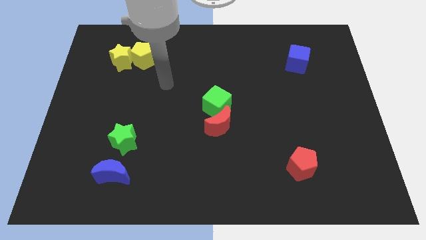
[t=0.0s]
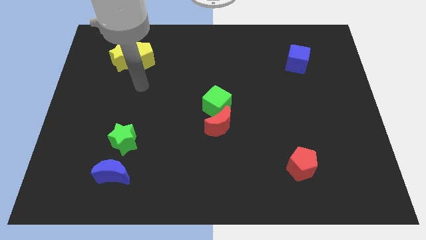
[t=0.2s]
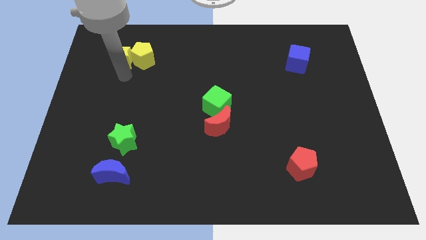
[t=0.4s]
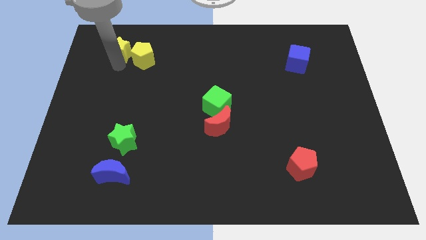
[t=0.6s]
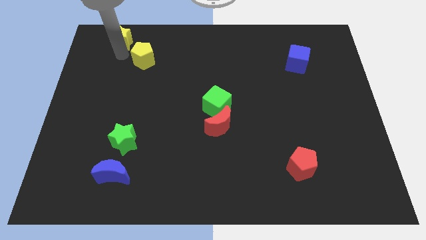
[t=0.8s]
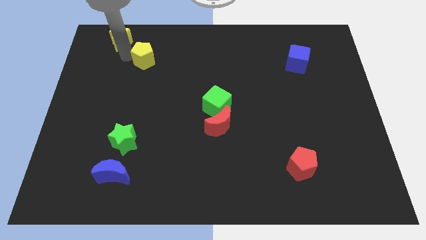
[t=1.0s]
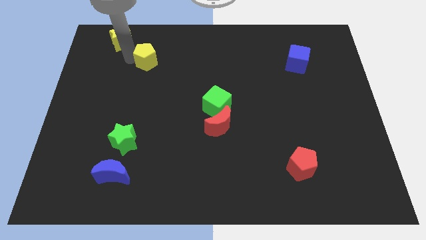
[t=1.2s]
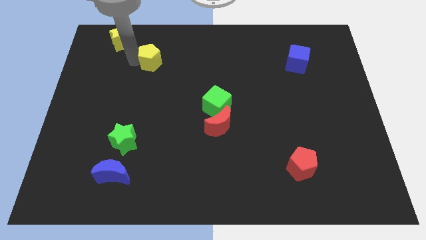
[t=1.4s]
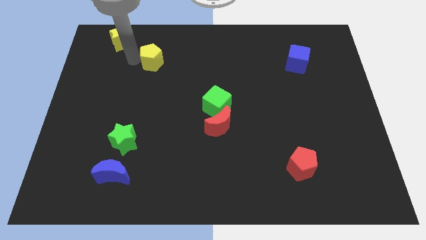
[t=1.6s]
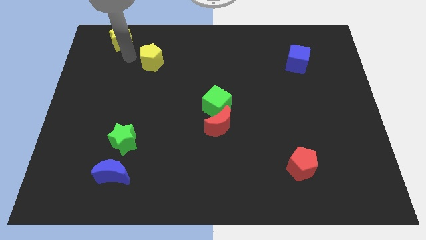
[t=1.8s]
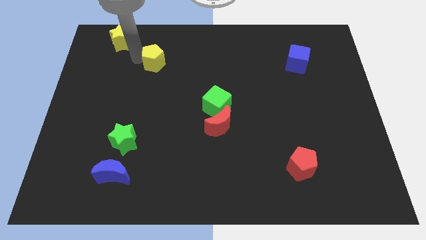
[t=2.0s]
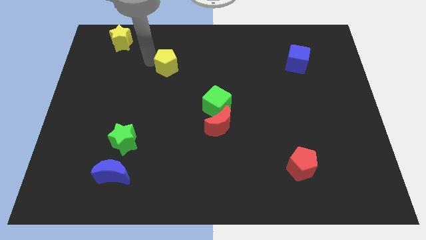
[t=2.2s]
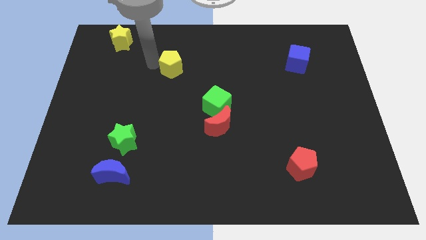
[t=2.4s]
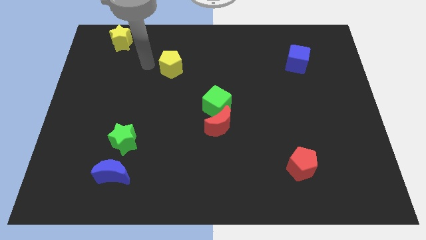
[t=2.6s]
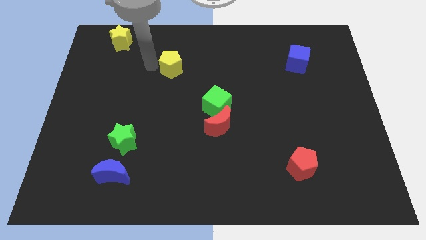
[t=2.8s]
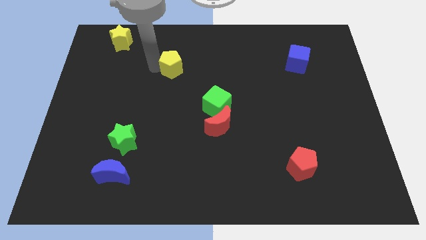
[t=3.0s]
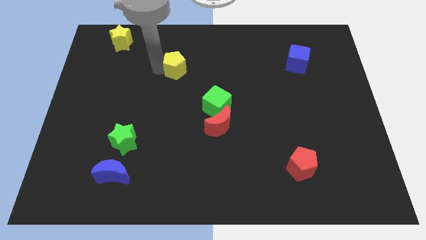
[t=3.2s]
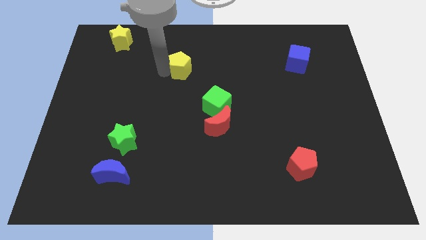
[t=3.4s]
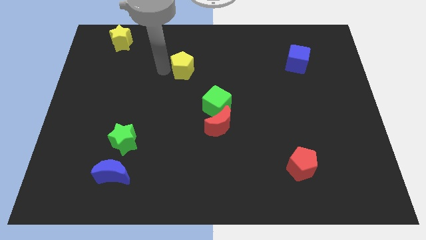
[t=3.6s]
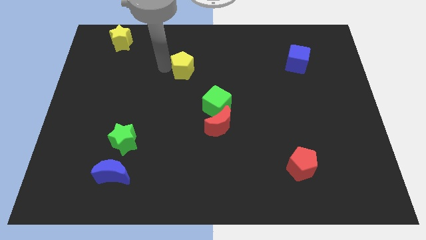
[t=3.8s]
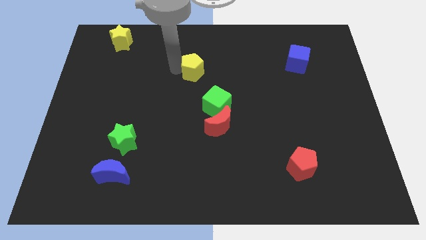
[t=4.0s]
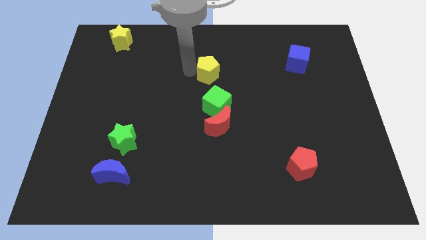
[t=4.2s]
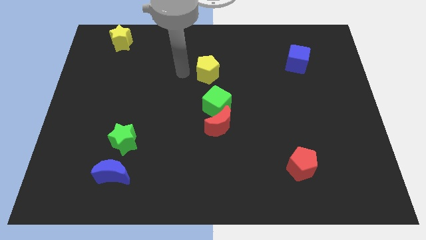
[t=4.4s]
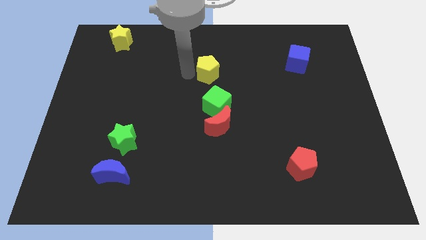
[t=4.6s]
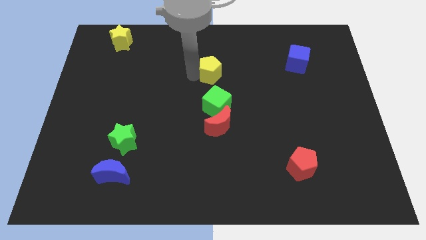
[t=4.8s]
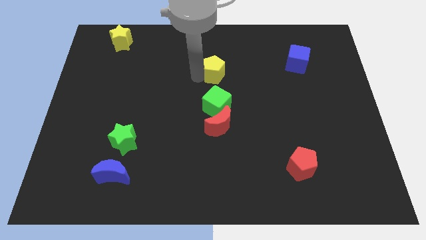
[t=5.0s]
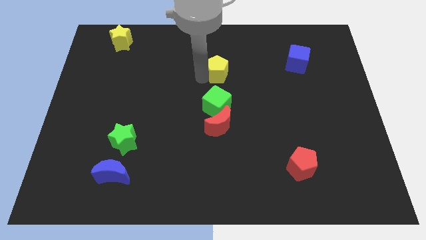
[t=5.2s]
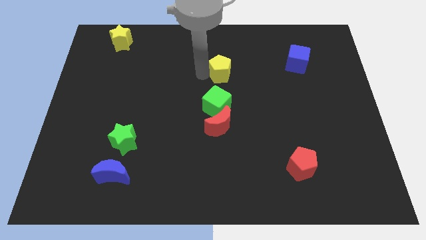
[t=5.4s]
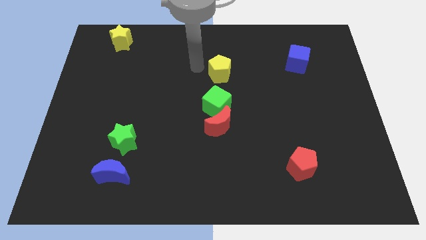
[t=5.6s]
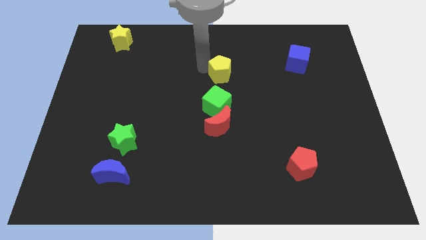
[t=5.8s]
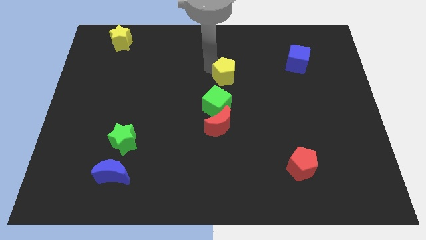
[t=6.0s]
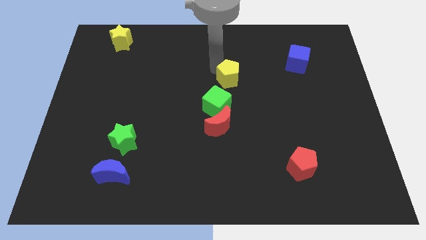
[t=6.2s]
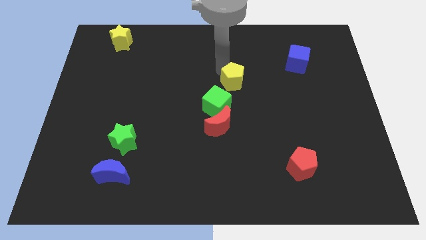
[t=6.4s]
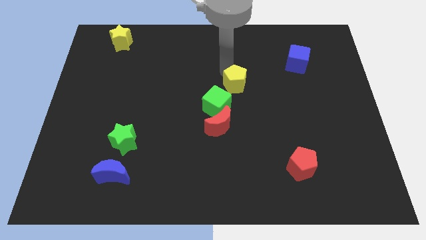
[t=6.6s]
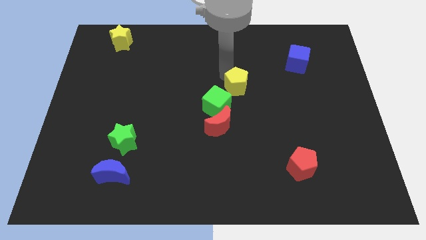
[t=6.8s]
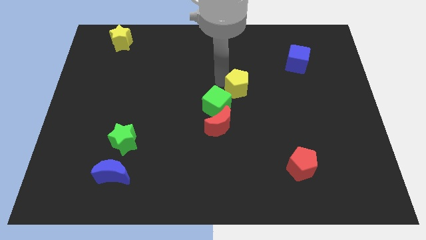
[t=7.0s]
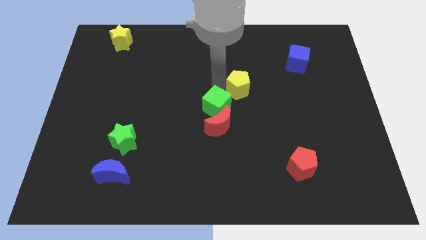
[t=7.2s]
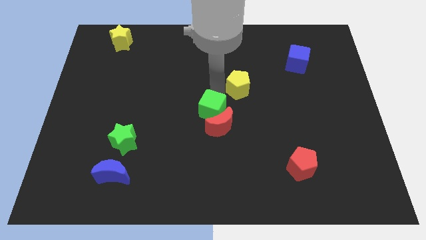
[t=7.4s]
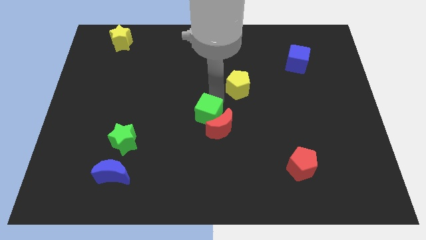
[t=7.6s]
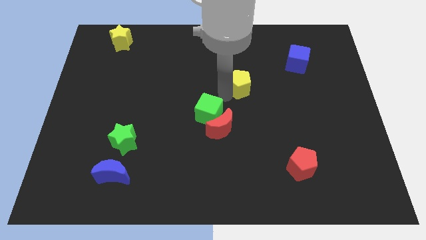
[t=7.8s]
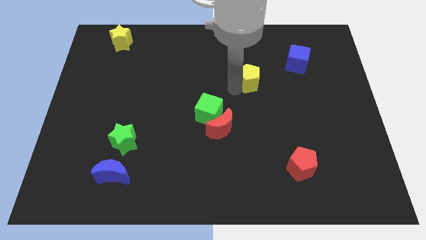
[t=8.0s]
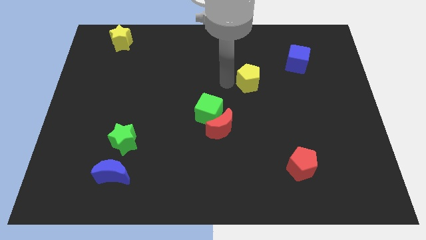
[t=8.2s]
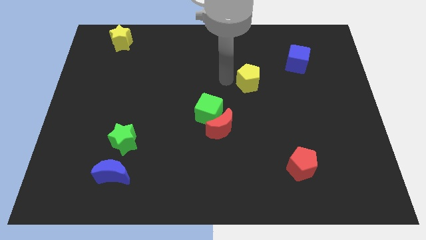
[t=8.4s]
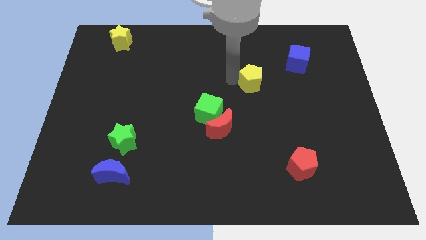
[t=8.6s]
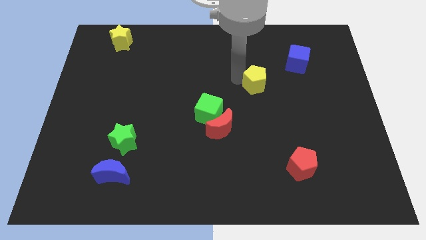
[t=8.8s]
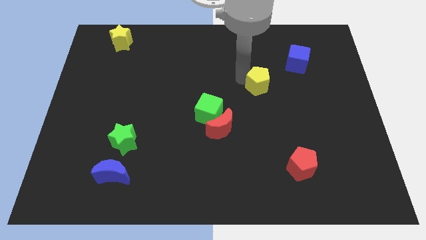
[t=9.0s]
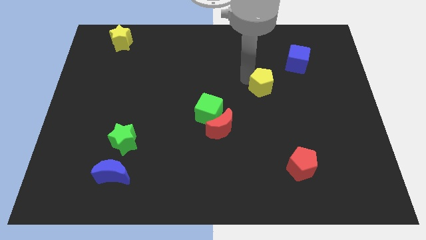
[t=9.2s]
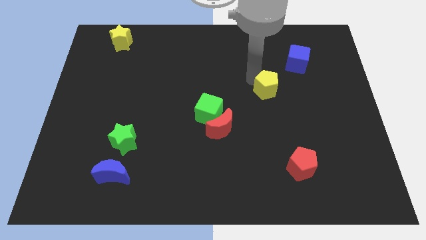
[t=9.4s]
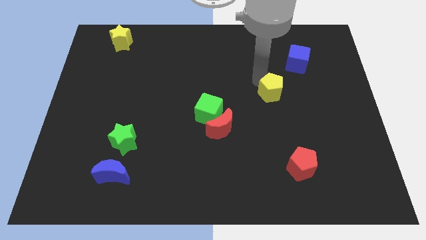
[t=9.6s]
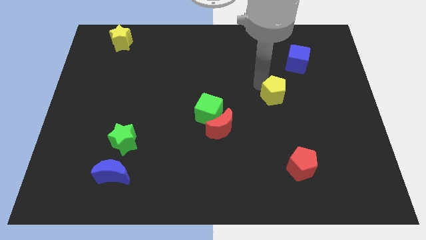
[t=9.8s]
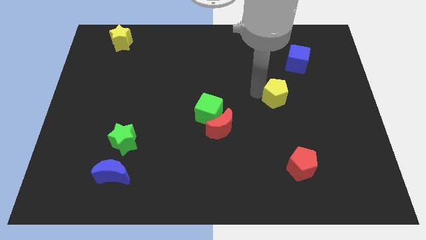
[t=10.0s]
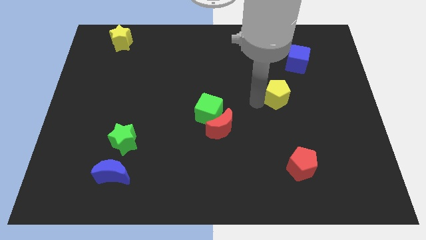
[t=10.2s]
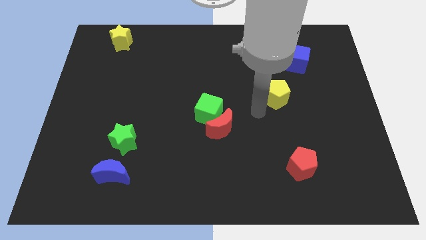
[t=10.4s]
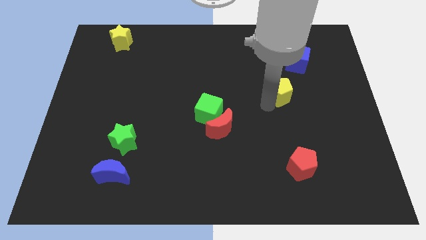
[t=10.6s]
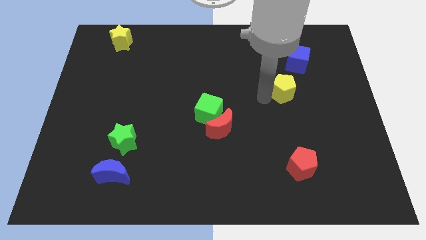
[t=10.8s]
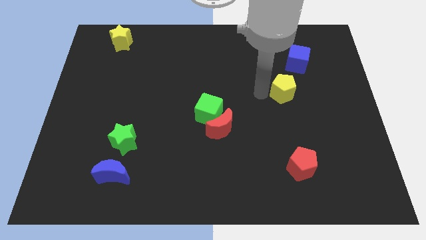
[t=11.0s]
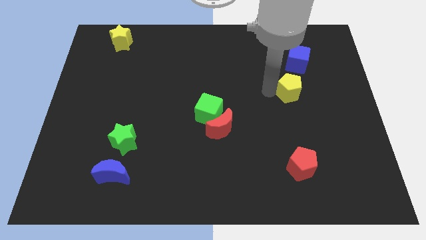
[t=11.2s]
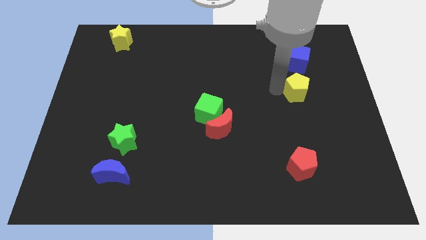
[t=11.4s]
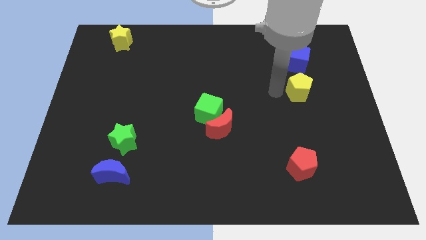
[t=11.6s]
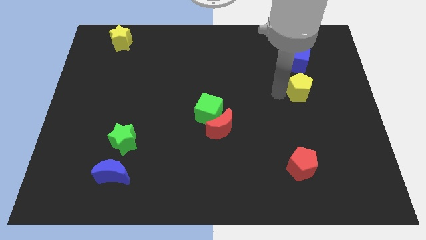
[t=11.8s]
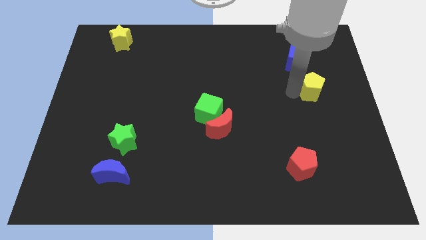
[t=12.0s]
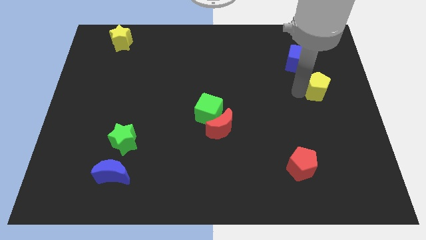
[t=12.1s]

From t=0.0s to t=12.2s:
put the yellow pentagon to the right side
